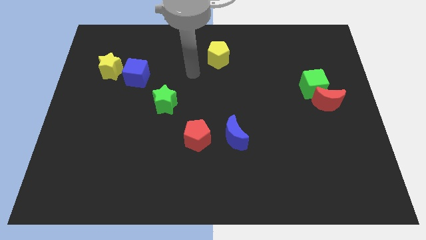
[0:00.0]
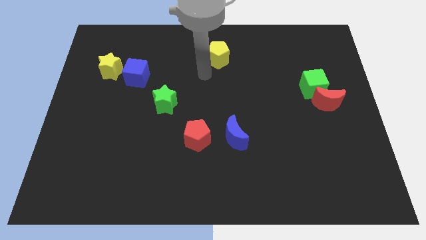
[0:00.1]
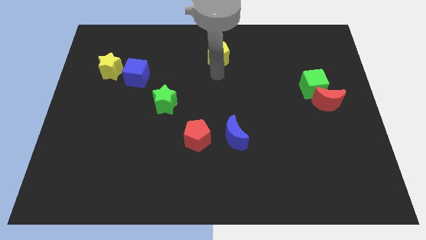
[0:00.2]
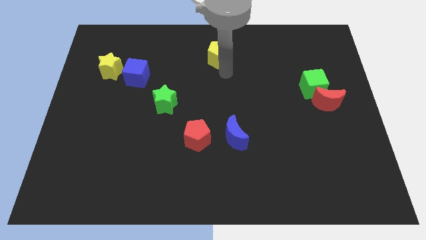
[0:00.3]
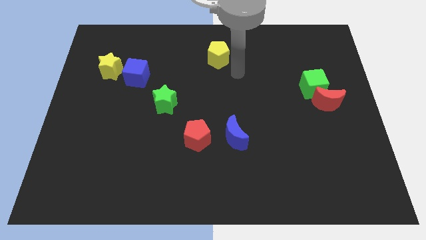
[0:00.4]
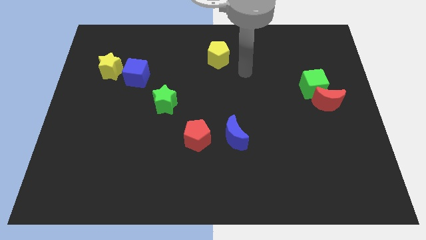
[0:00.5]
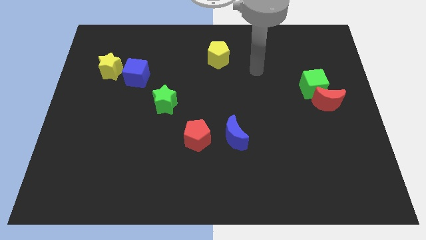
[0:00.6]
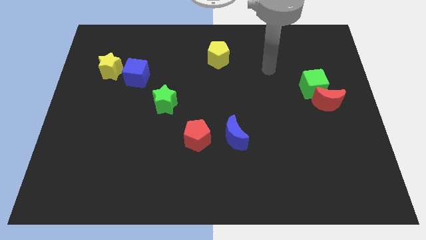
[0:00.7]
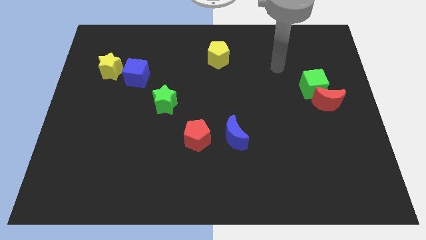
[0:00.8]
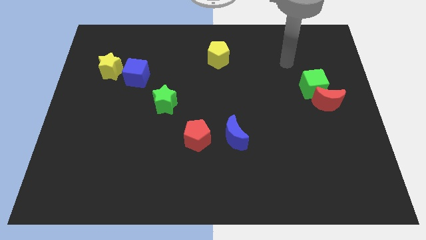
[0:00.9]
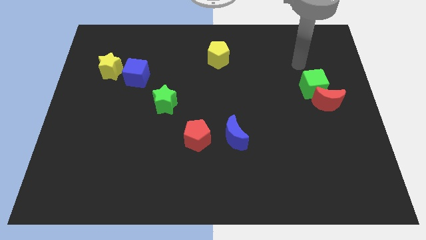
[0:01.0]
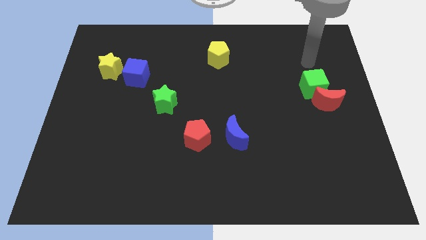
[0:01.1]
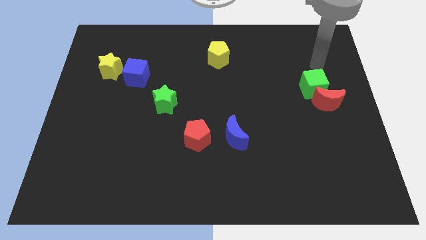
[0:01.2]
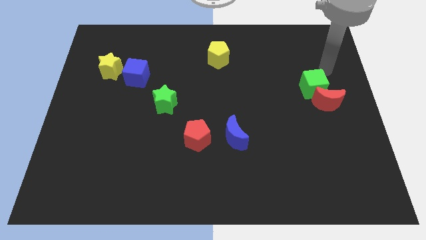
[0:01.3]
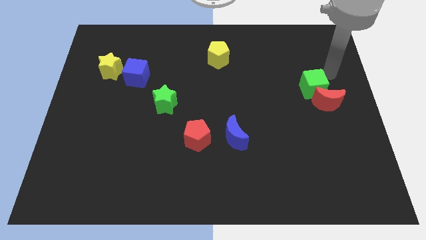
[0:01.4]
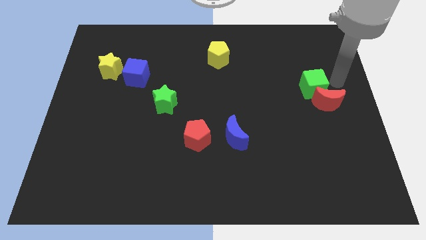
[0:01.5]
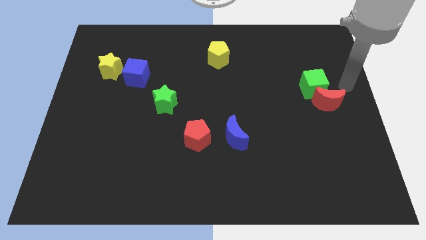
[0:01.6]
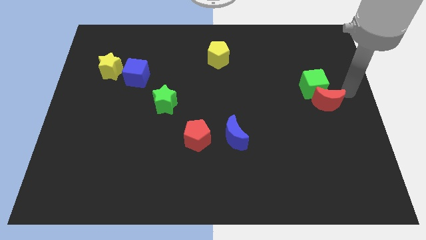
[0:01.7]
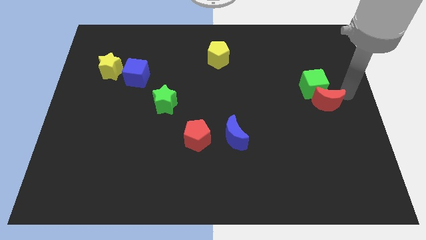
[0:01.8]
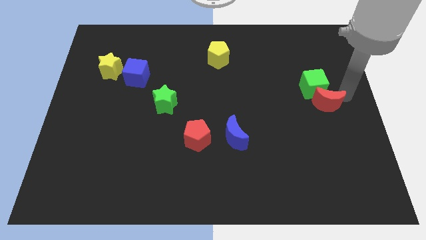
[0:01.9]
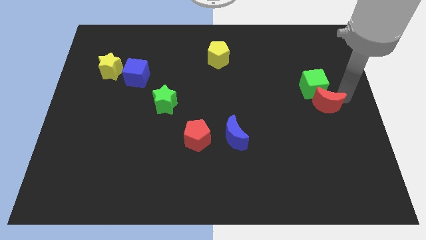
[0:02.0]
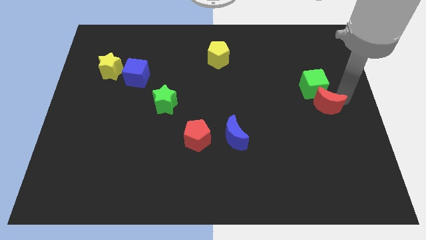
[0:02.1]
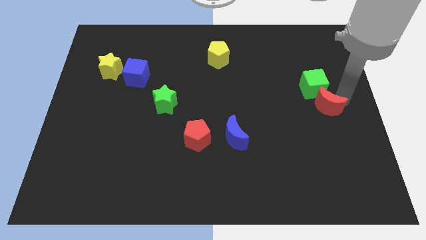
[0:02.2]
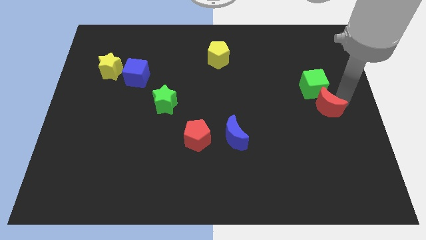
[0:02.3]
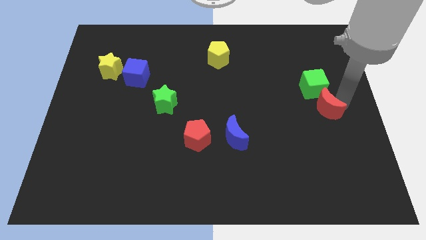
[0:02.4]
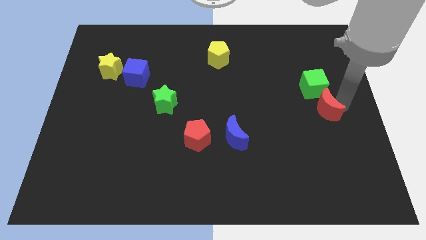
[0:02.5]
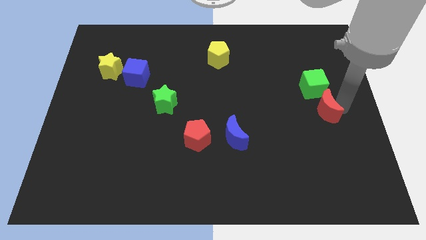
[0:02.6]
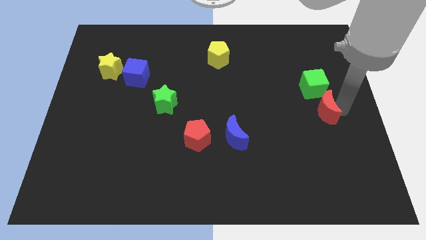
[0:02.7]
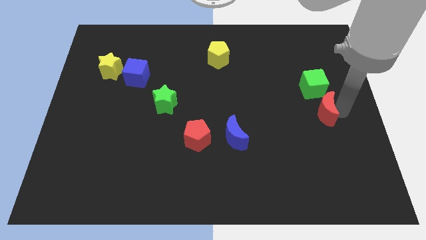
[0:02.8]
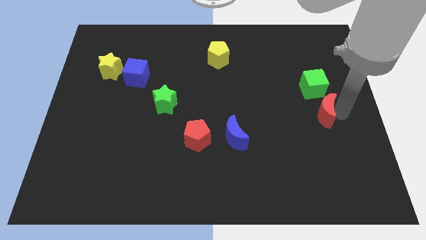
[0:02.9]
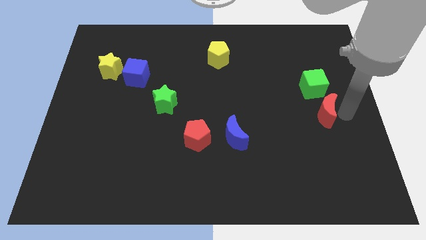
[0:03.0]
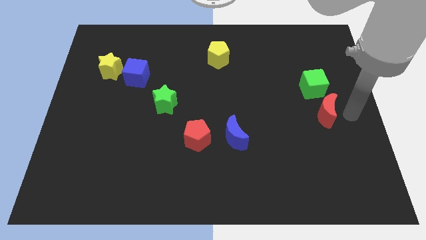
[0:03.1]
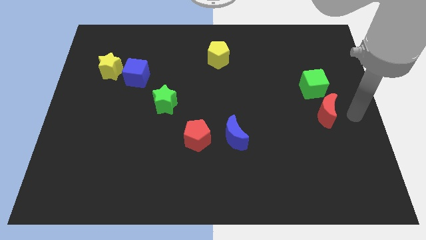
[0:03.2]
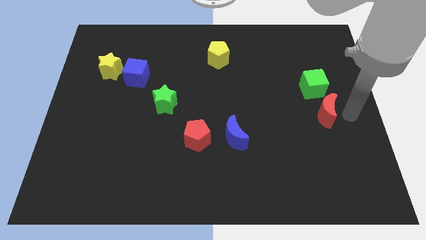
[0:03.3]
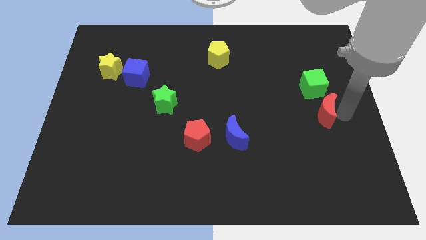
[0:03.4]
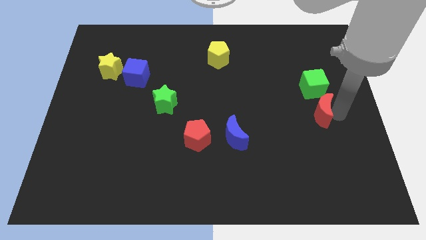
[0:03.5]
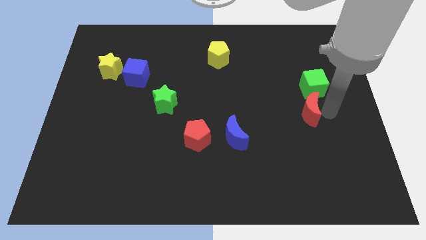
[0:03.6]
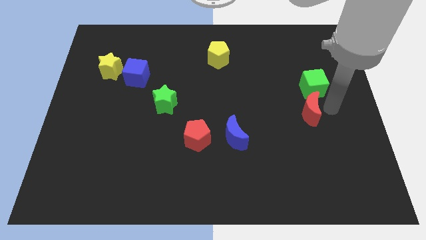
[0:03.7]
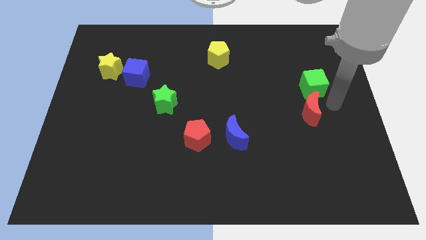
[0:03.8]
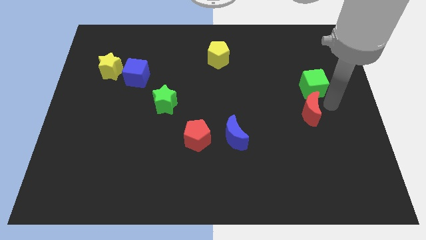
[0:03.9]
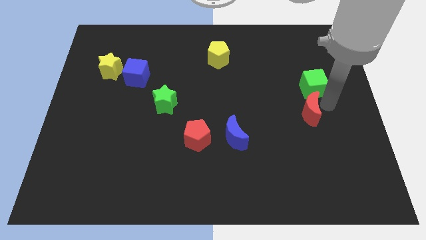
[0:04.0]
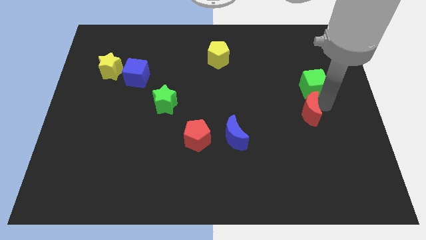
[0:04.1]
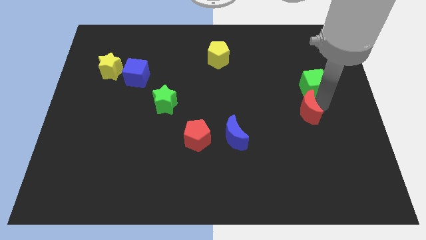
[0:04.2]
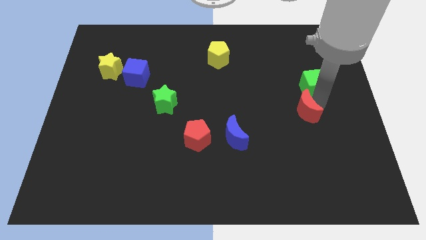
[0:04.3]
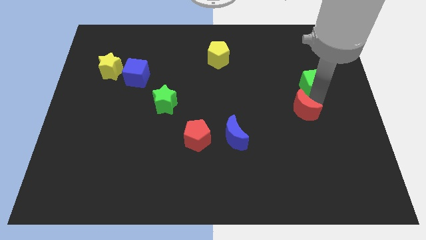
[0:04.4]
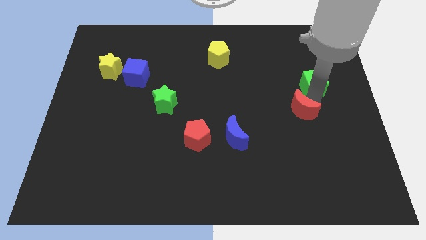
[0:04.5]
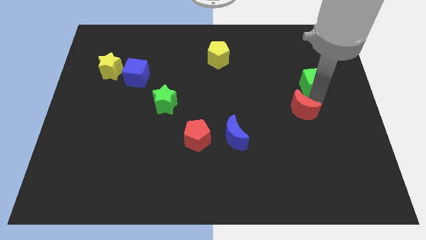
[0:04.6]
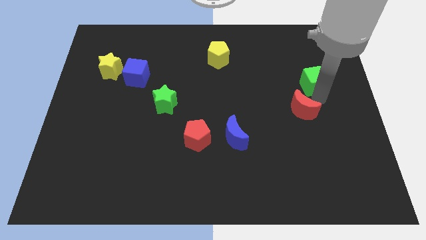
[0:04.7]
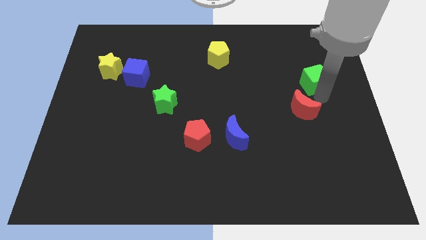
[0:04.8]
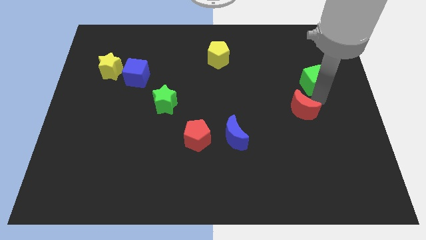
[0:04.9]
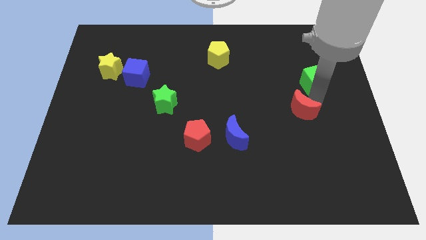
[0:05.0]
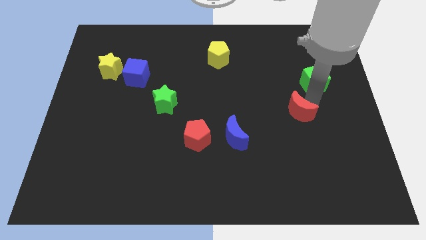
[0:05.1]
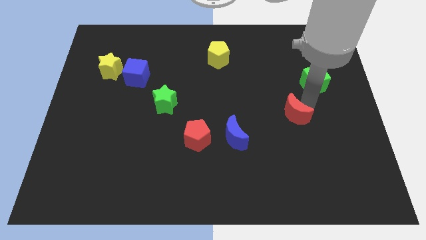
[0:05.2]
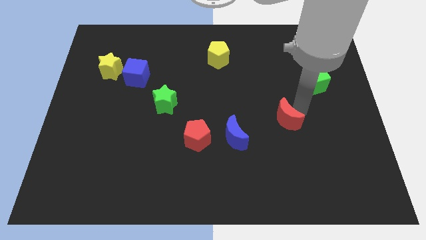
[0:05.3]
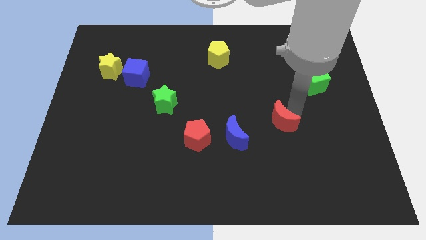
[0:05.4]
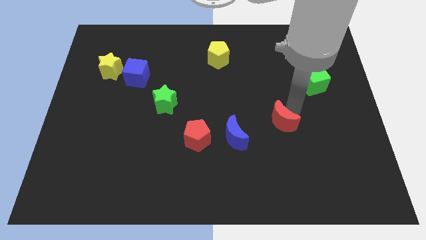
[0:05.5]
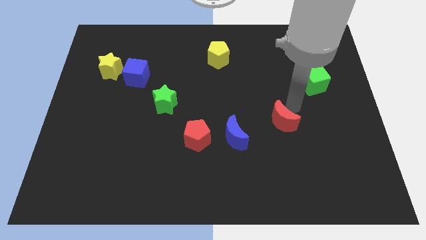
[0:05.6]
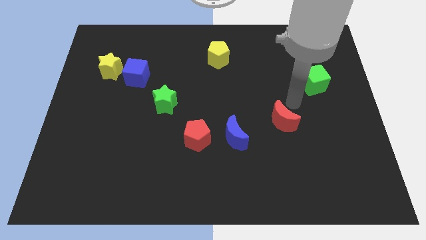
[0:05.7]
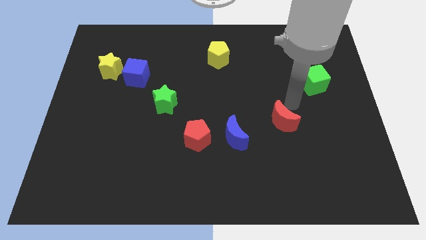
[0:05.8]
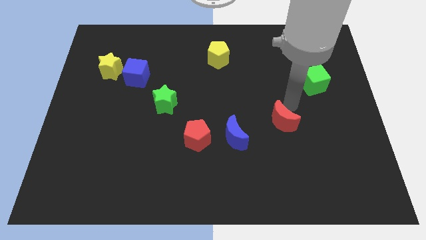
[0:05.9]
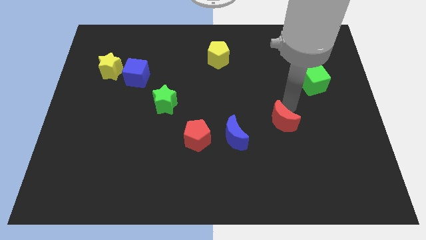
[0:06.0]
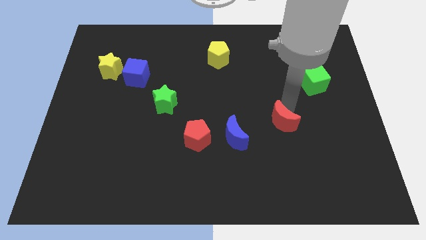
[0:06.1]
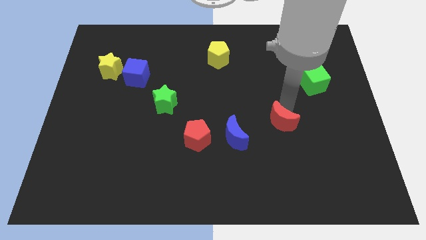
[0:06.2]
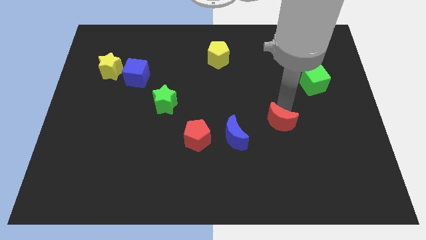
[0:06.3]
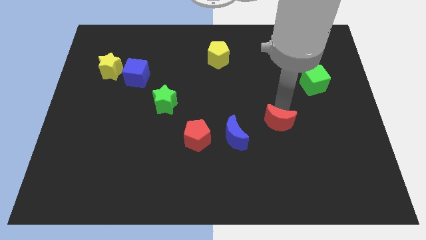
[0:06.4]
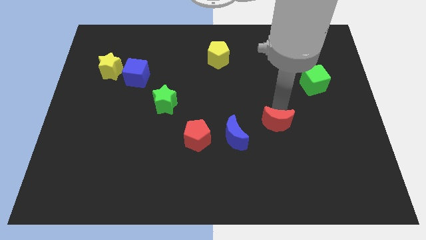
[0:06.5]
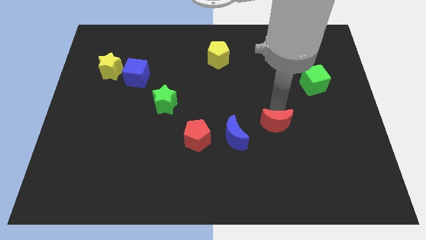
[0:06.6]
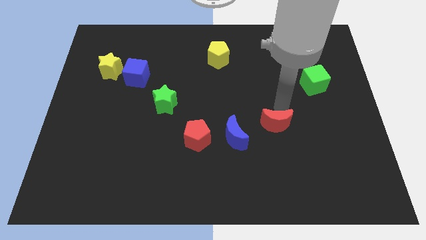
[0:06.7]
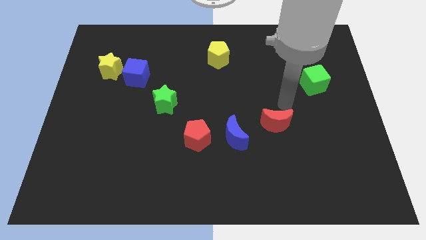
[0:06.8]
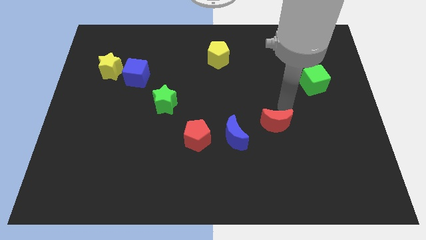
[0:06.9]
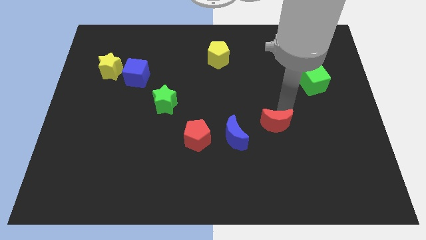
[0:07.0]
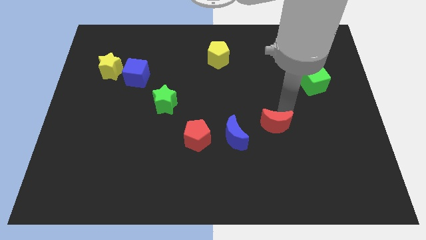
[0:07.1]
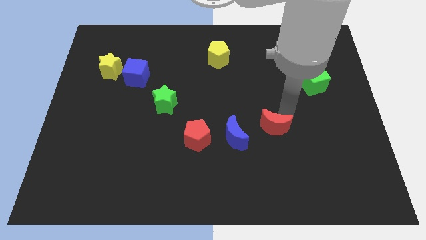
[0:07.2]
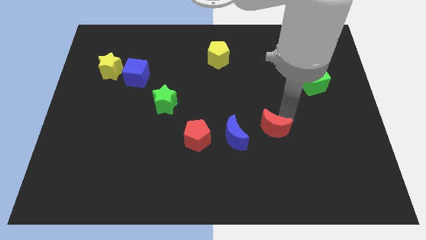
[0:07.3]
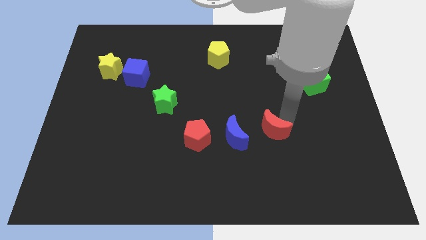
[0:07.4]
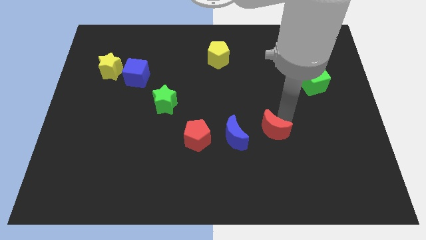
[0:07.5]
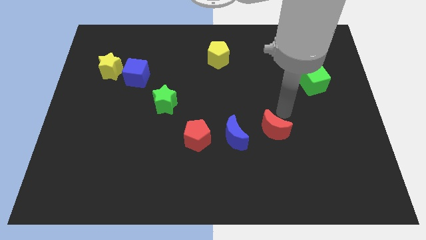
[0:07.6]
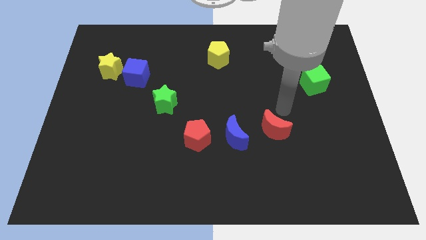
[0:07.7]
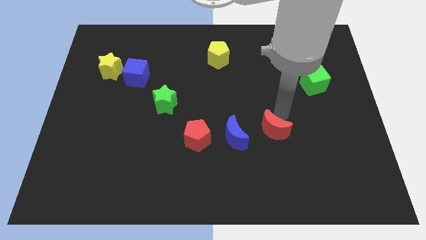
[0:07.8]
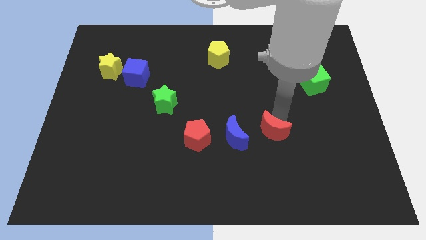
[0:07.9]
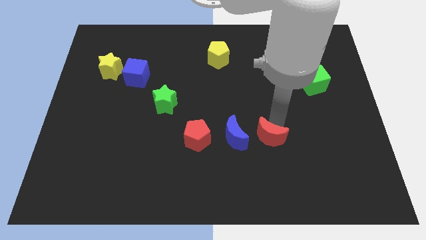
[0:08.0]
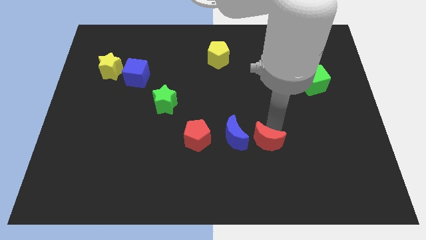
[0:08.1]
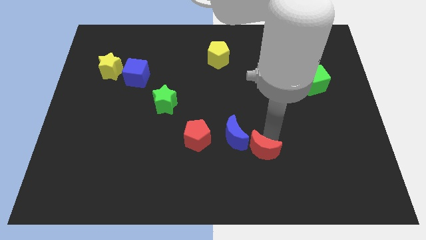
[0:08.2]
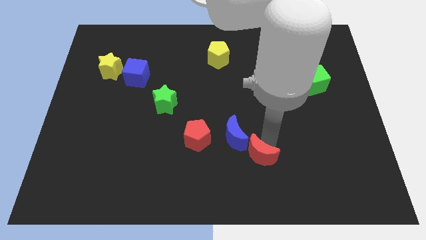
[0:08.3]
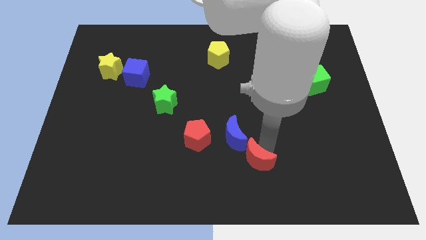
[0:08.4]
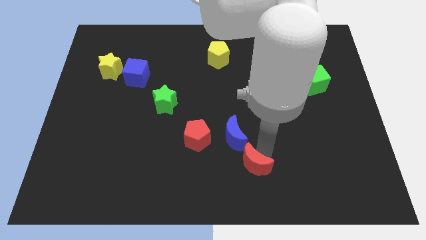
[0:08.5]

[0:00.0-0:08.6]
put the red moon to the bottom
